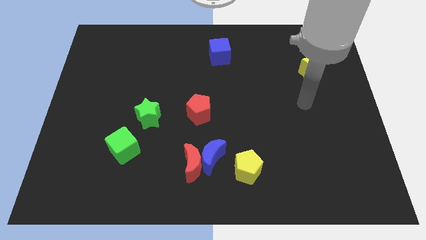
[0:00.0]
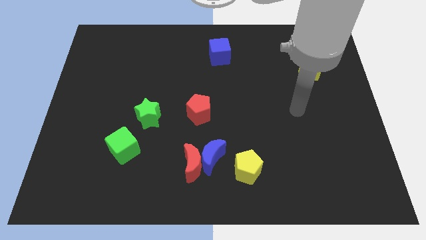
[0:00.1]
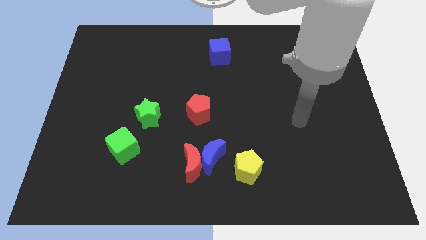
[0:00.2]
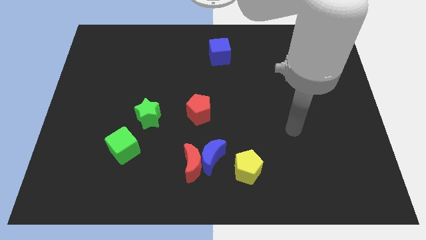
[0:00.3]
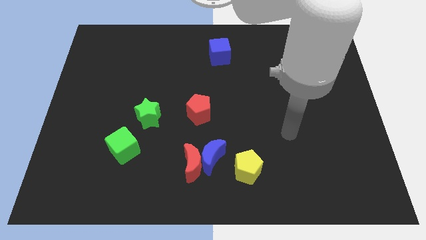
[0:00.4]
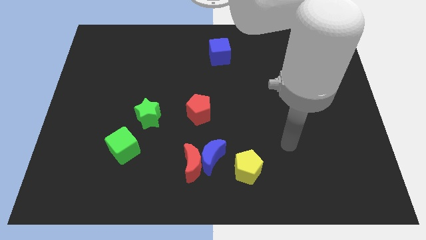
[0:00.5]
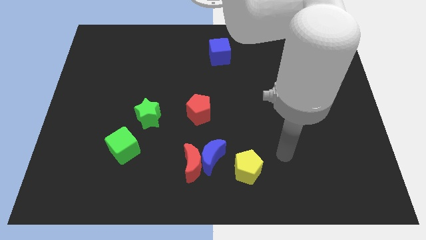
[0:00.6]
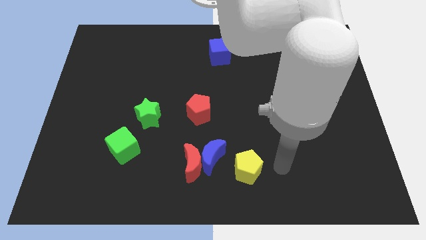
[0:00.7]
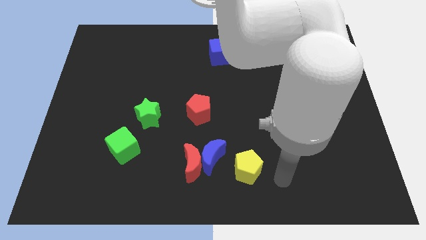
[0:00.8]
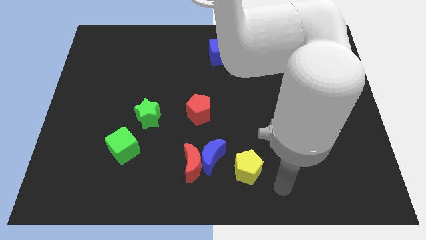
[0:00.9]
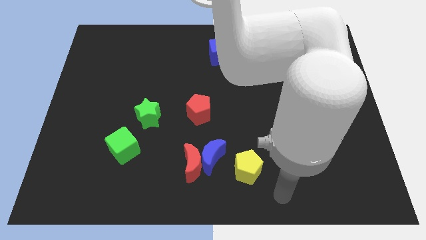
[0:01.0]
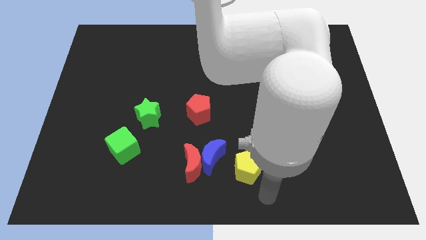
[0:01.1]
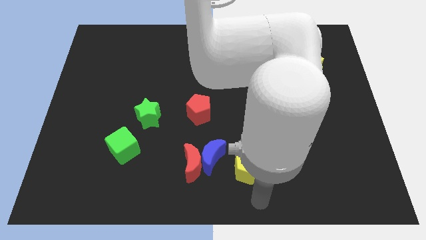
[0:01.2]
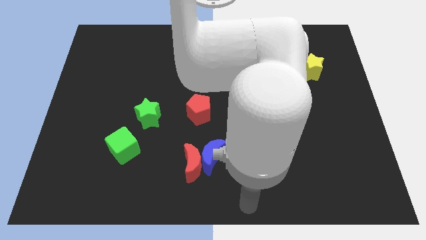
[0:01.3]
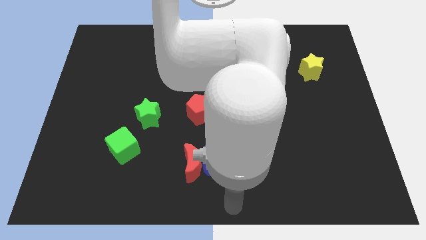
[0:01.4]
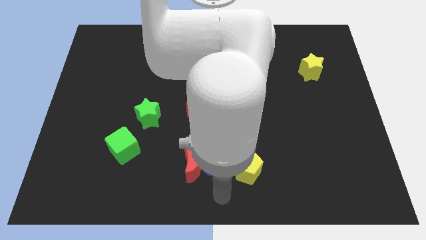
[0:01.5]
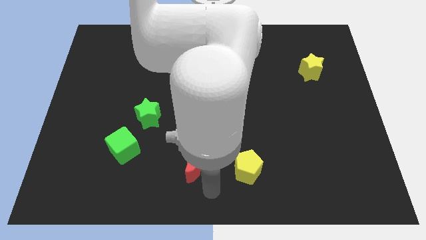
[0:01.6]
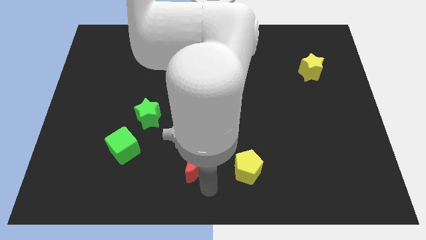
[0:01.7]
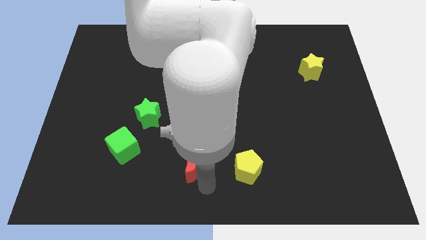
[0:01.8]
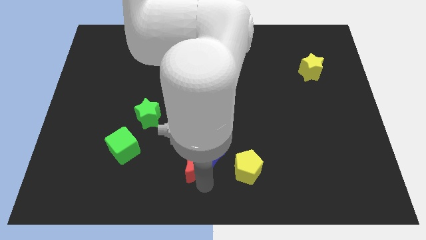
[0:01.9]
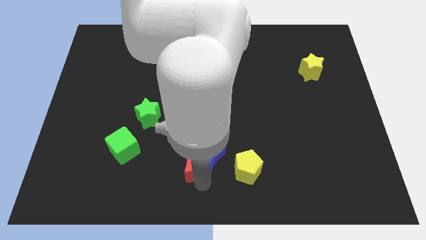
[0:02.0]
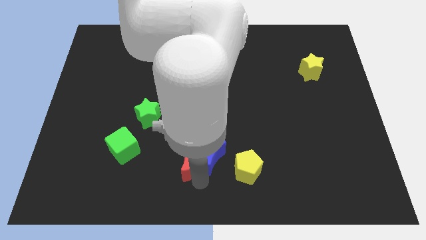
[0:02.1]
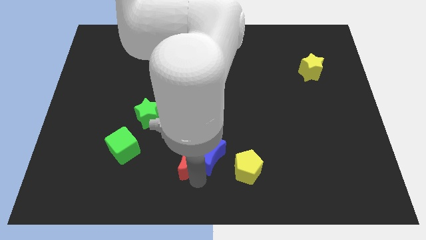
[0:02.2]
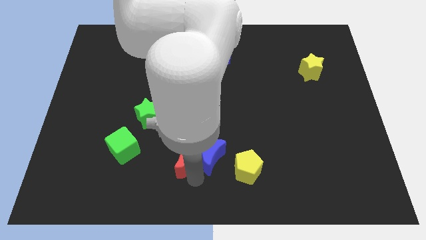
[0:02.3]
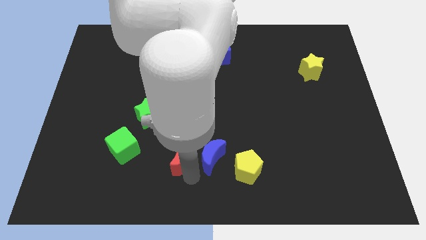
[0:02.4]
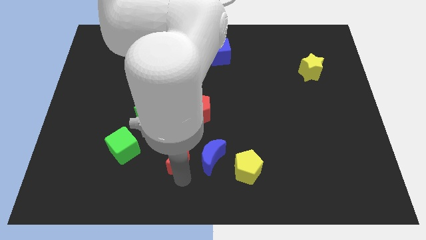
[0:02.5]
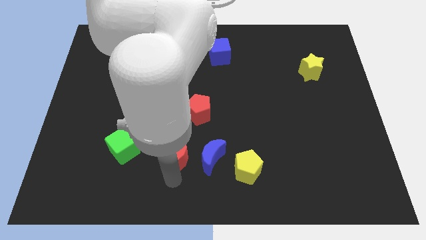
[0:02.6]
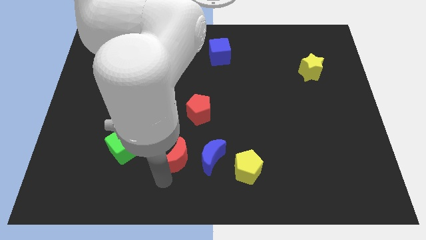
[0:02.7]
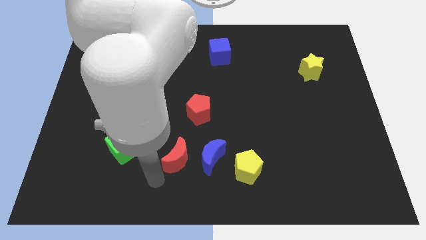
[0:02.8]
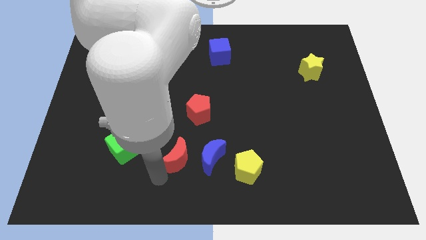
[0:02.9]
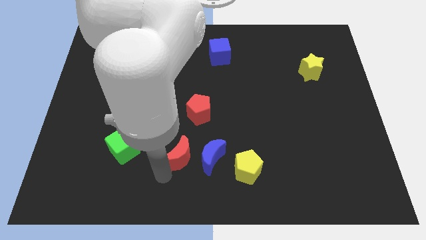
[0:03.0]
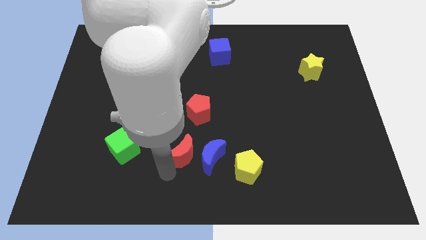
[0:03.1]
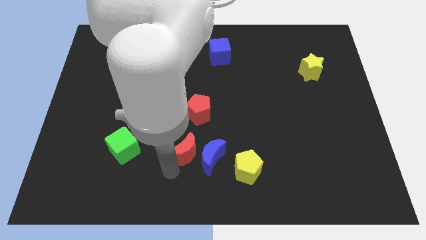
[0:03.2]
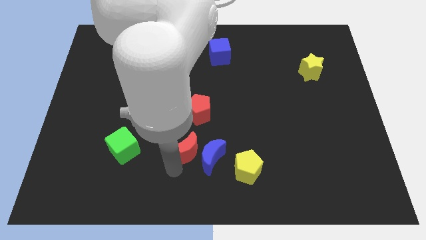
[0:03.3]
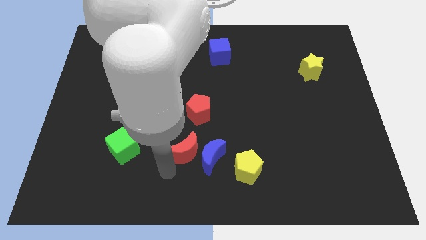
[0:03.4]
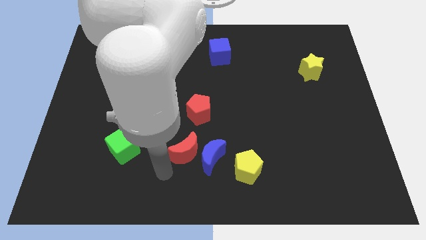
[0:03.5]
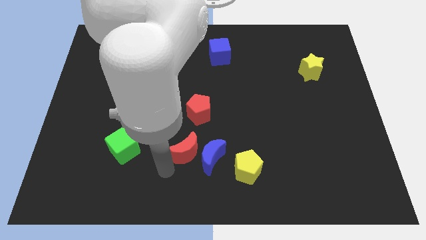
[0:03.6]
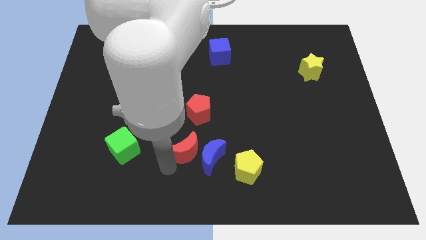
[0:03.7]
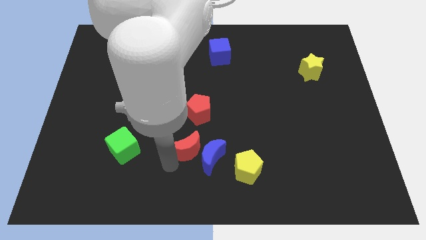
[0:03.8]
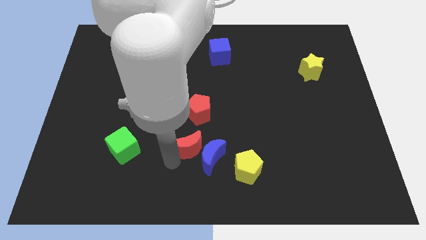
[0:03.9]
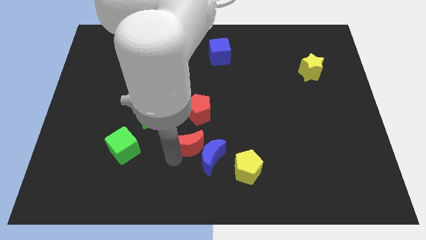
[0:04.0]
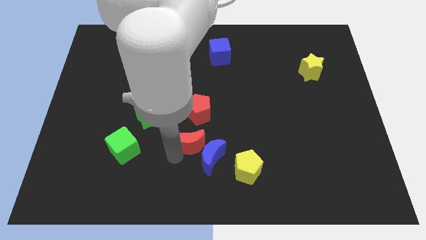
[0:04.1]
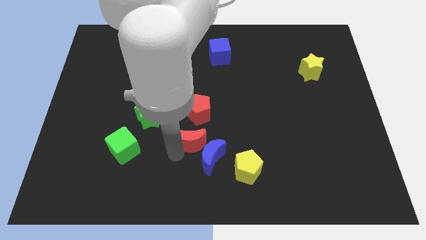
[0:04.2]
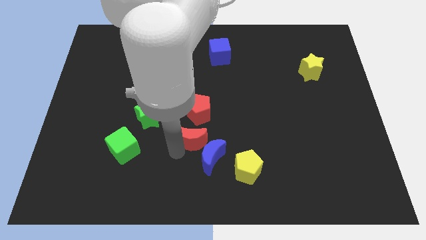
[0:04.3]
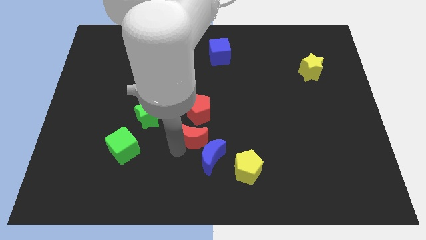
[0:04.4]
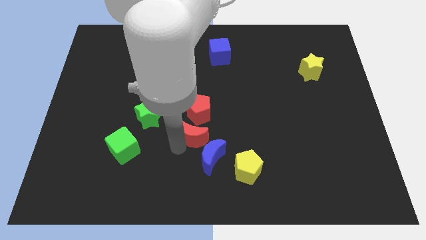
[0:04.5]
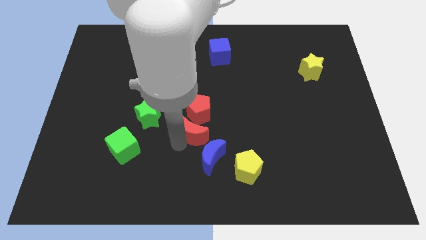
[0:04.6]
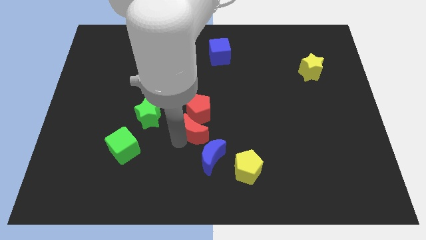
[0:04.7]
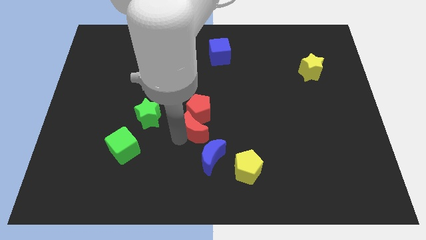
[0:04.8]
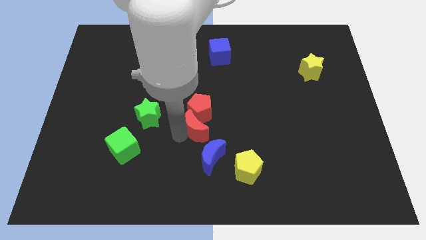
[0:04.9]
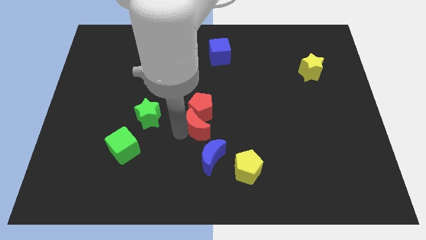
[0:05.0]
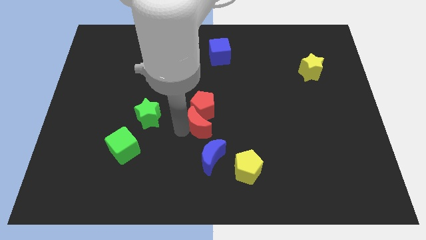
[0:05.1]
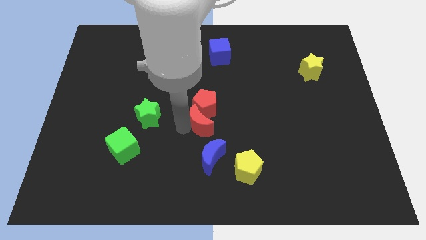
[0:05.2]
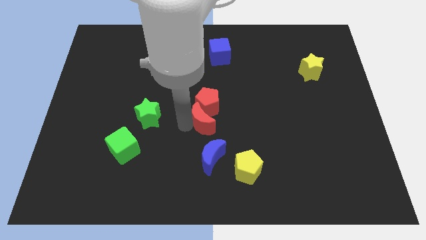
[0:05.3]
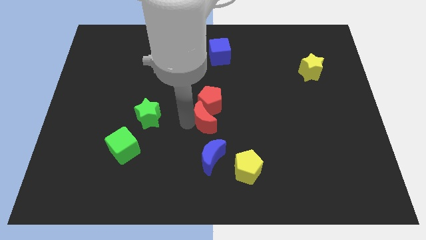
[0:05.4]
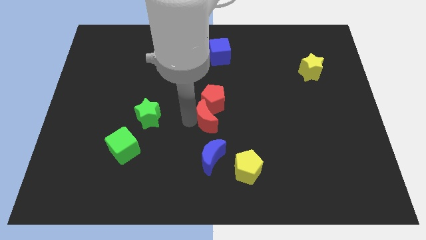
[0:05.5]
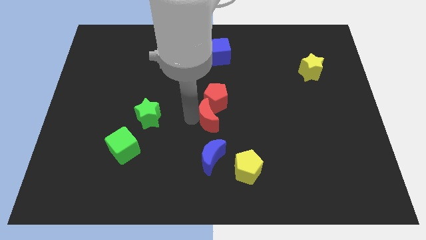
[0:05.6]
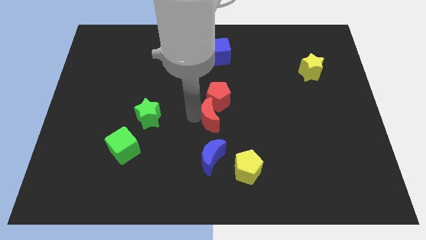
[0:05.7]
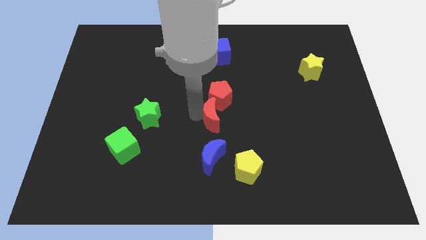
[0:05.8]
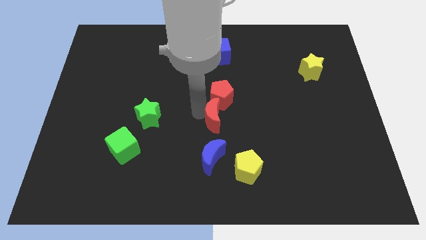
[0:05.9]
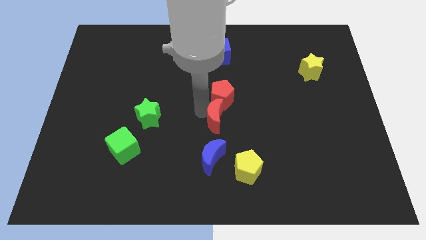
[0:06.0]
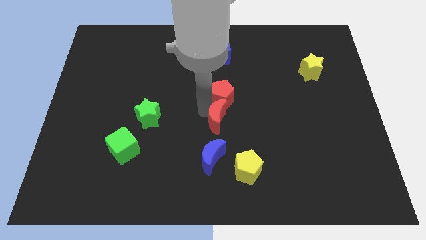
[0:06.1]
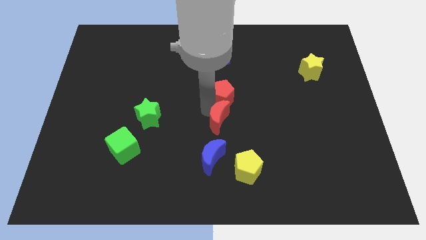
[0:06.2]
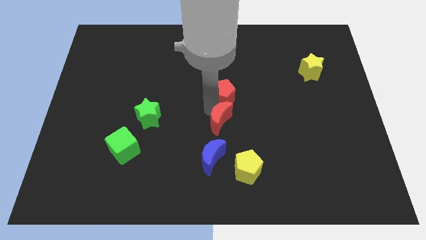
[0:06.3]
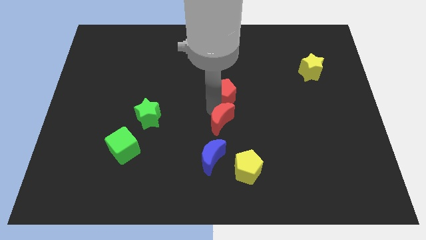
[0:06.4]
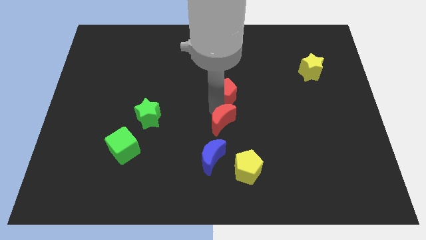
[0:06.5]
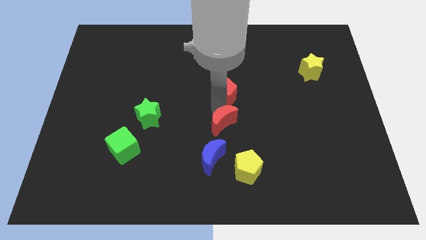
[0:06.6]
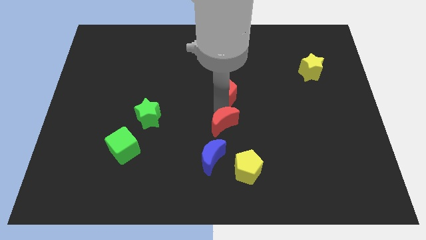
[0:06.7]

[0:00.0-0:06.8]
slide the red moon to the top of the yellow pentagon
